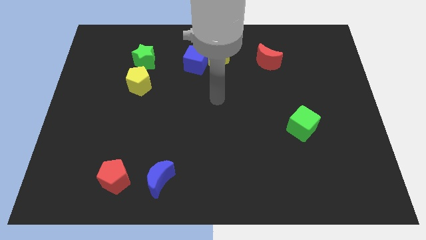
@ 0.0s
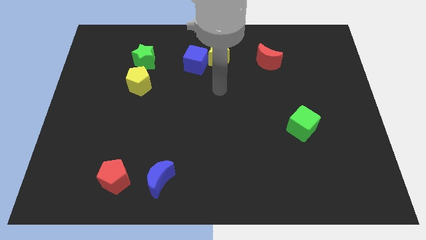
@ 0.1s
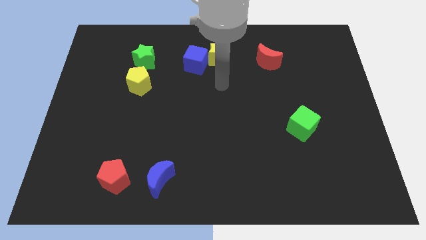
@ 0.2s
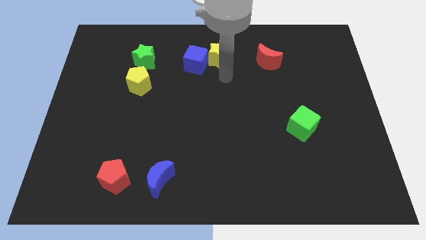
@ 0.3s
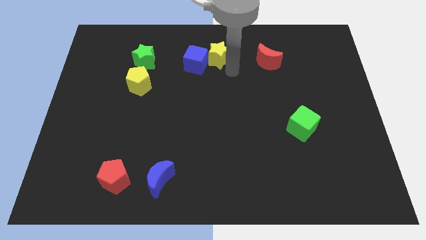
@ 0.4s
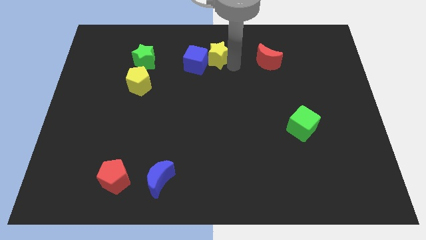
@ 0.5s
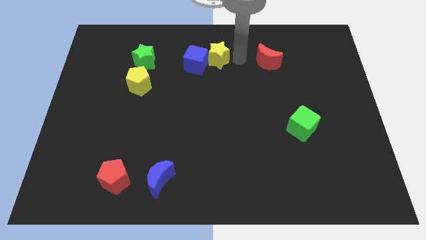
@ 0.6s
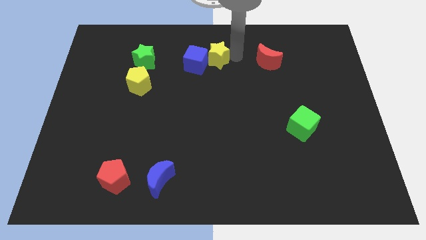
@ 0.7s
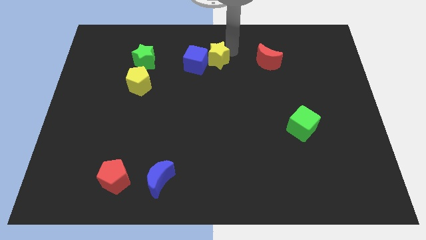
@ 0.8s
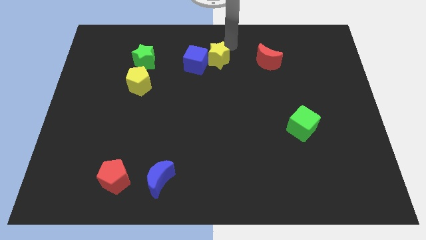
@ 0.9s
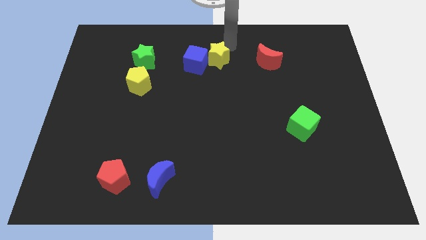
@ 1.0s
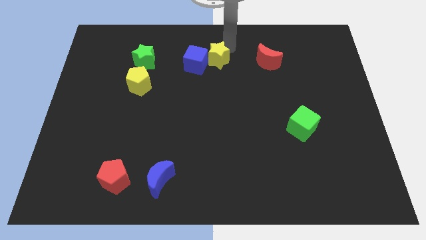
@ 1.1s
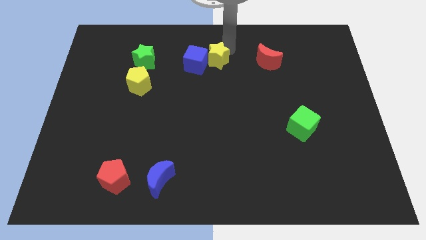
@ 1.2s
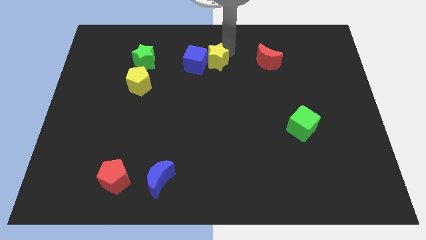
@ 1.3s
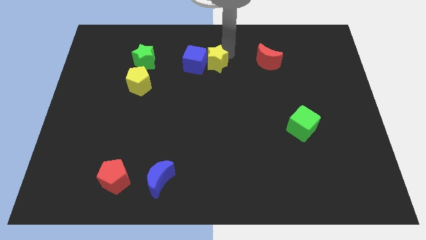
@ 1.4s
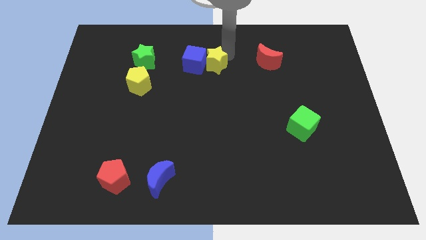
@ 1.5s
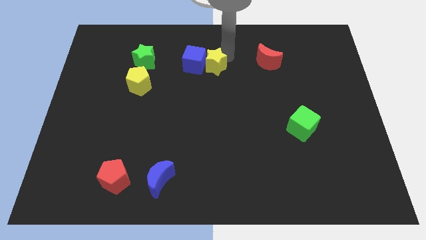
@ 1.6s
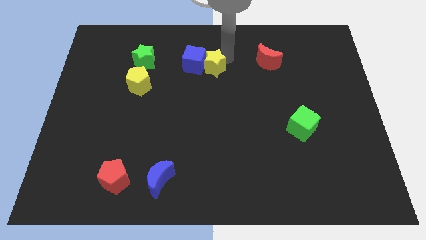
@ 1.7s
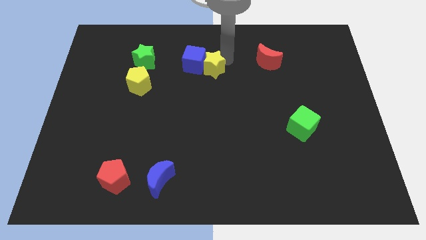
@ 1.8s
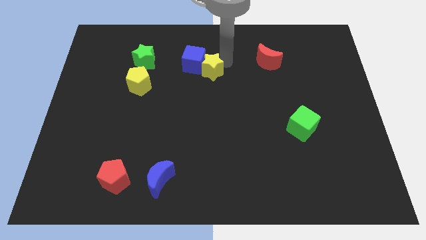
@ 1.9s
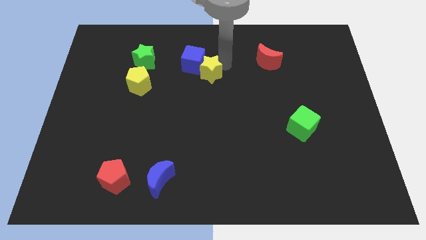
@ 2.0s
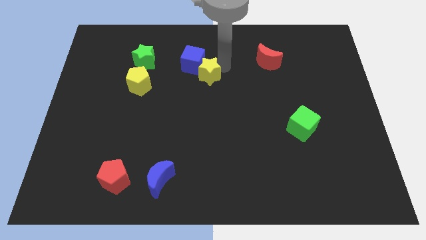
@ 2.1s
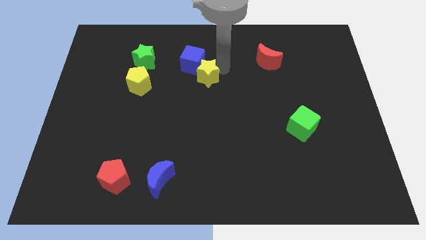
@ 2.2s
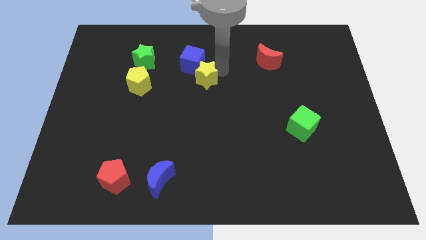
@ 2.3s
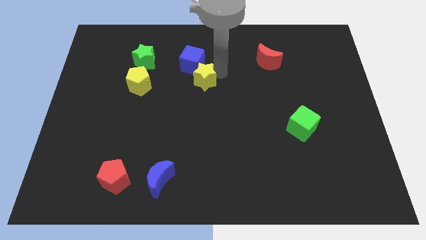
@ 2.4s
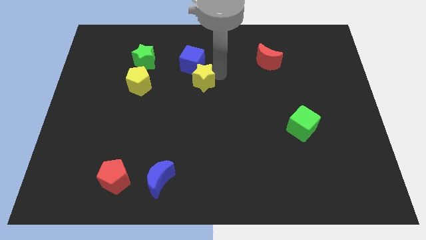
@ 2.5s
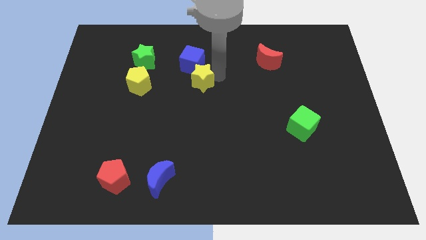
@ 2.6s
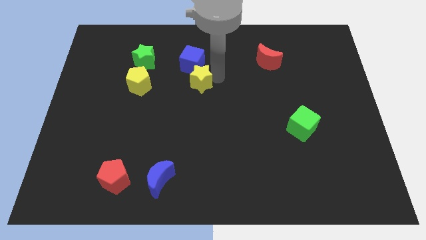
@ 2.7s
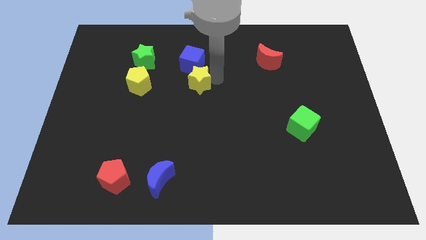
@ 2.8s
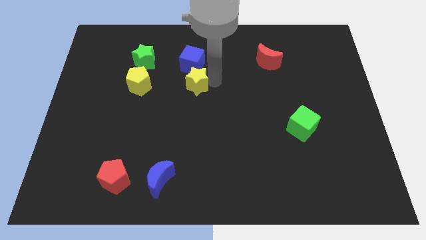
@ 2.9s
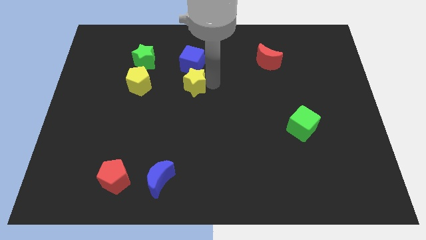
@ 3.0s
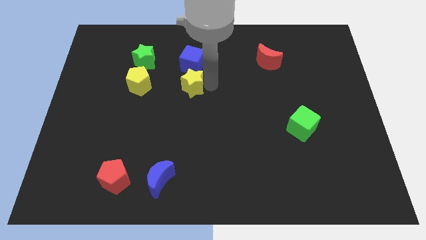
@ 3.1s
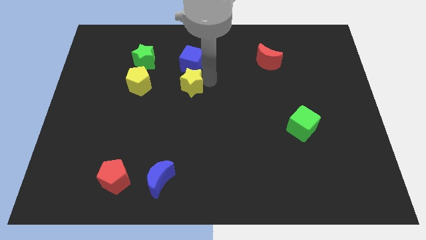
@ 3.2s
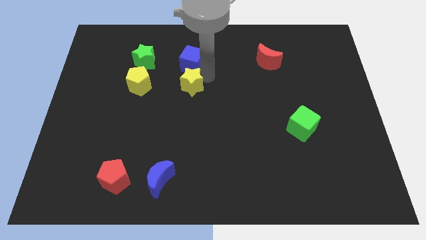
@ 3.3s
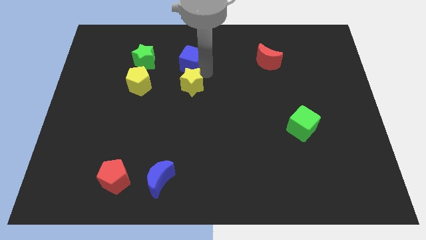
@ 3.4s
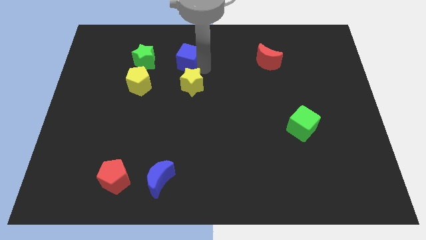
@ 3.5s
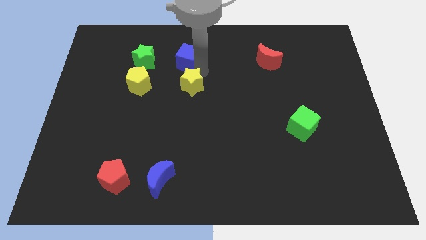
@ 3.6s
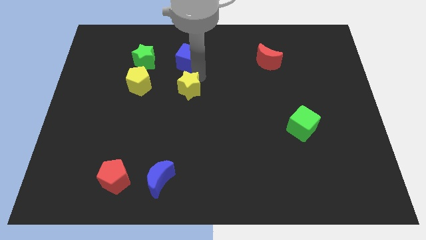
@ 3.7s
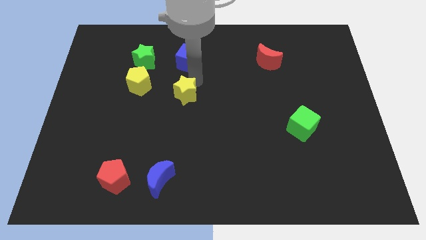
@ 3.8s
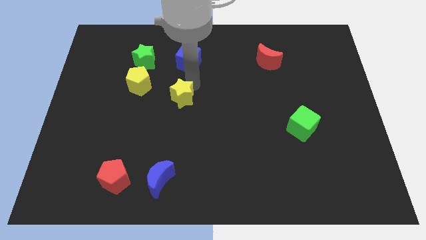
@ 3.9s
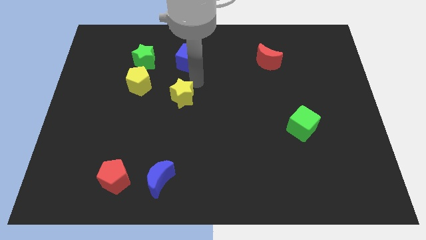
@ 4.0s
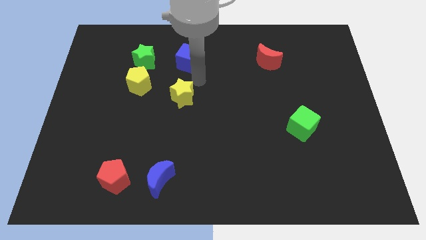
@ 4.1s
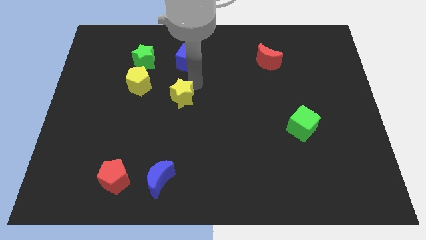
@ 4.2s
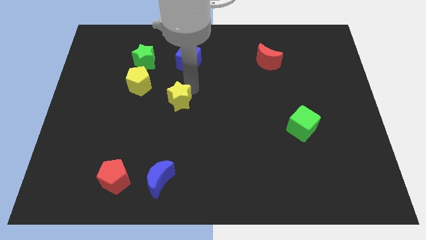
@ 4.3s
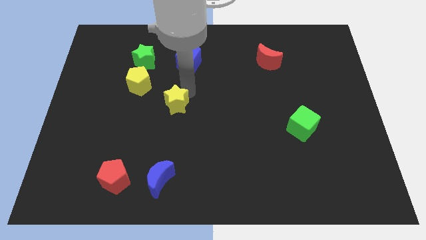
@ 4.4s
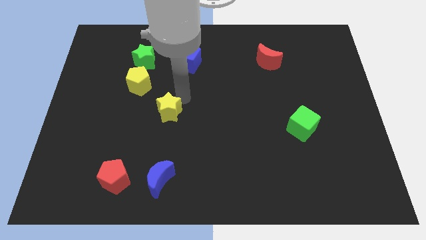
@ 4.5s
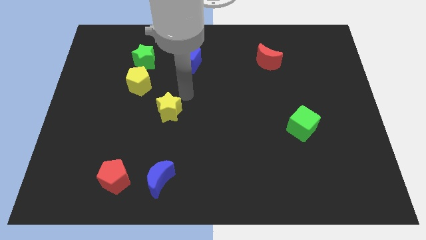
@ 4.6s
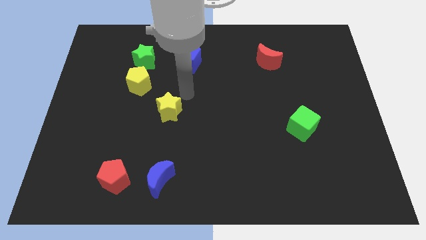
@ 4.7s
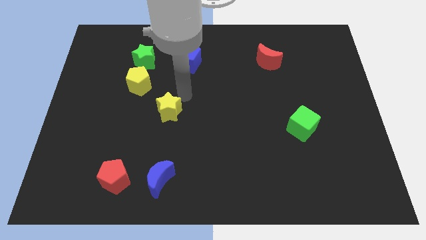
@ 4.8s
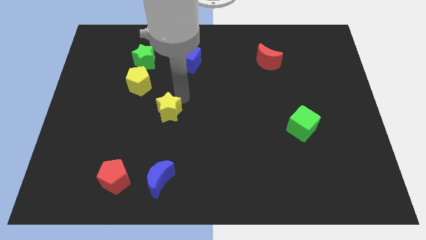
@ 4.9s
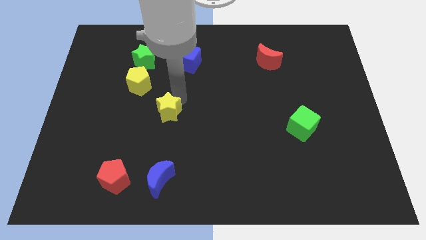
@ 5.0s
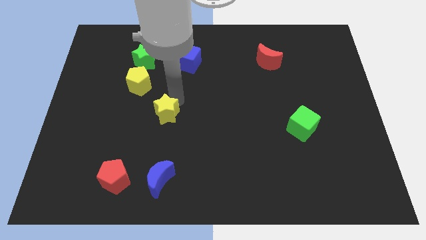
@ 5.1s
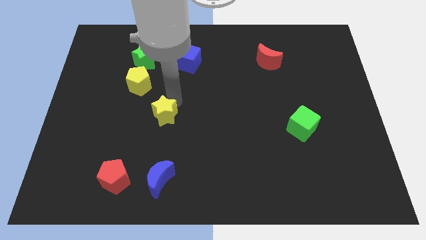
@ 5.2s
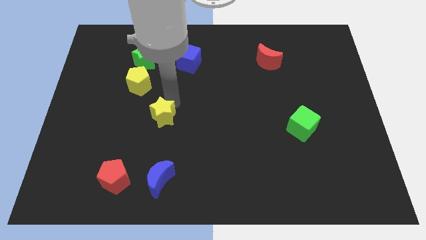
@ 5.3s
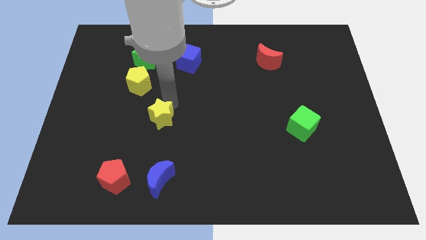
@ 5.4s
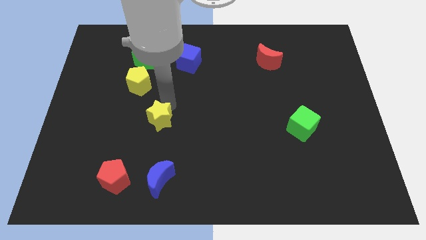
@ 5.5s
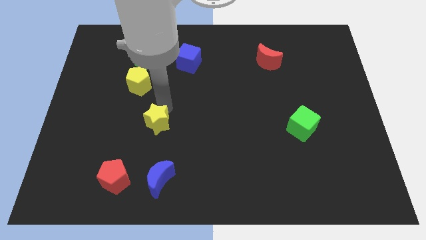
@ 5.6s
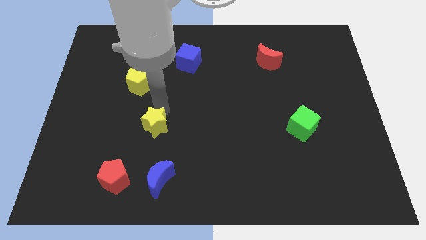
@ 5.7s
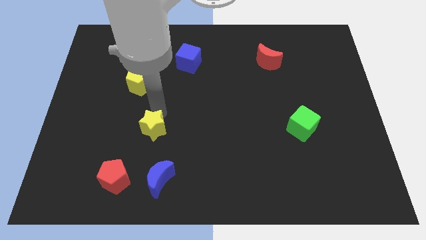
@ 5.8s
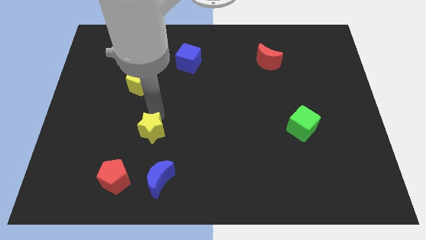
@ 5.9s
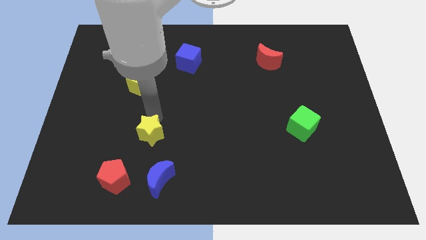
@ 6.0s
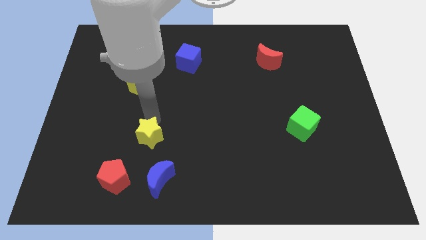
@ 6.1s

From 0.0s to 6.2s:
move the yellow star diagonally up and to the right of the red pentagon

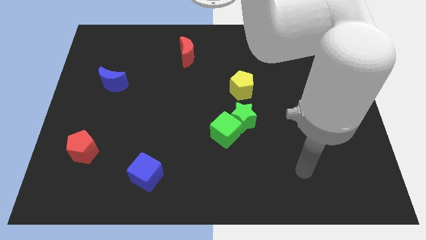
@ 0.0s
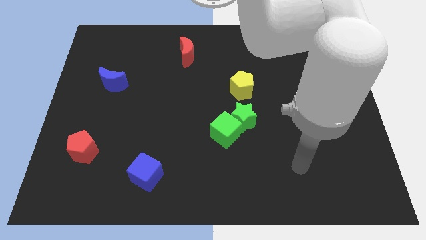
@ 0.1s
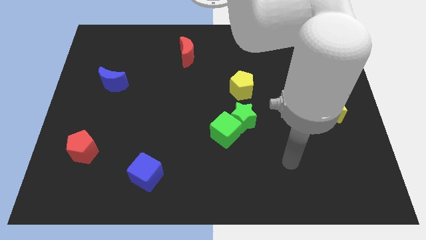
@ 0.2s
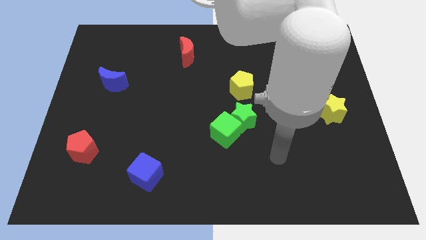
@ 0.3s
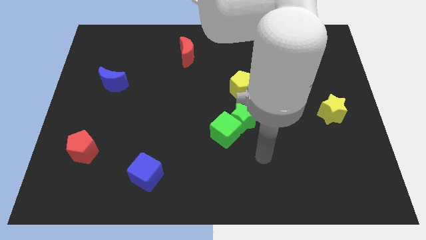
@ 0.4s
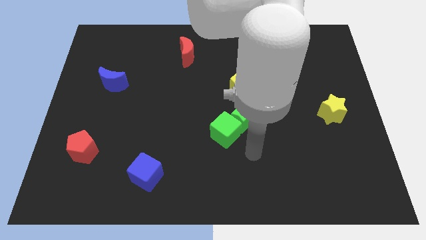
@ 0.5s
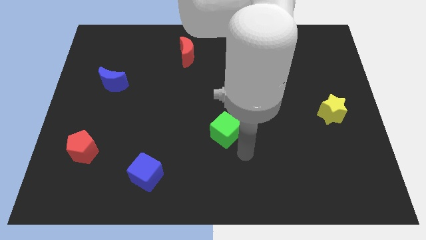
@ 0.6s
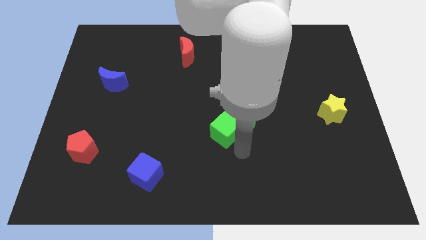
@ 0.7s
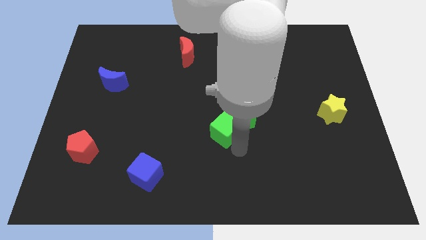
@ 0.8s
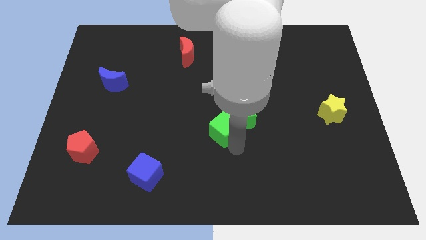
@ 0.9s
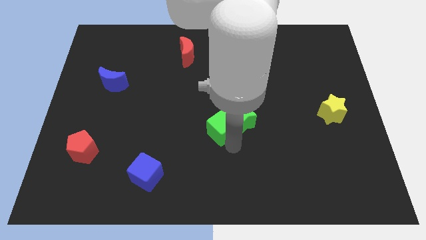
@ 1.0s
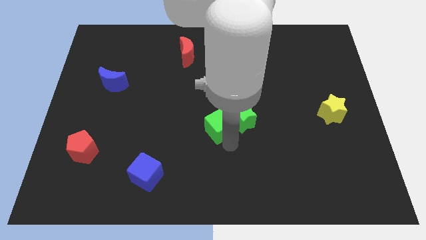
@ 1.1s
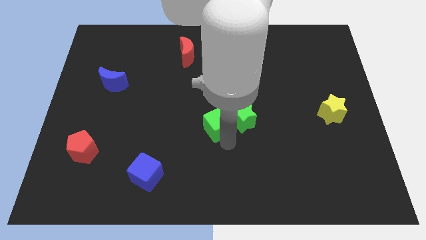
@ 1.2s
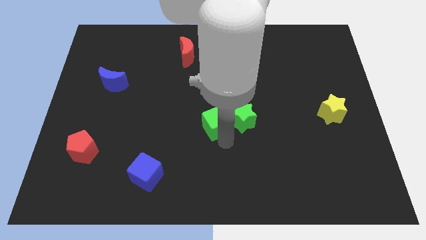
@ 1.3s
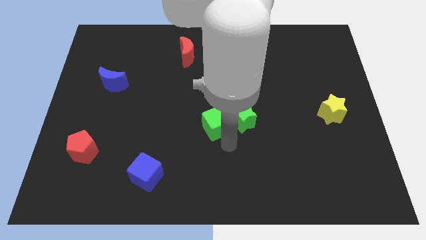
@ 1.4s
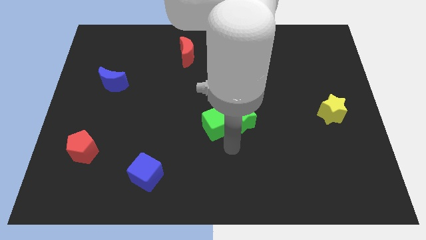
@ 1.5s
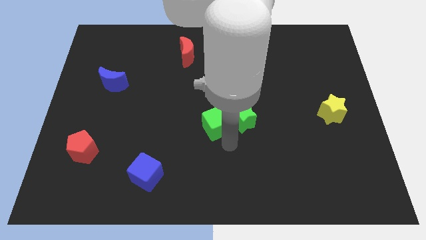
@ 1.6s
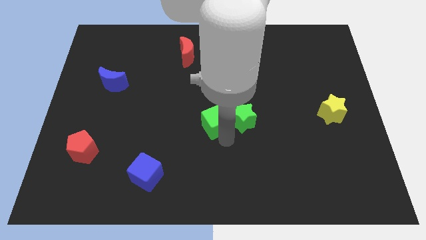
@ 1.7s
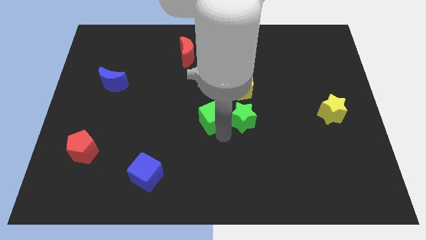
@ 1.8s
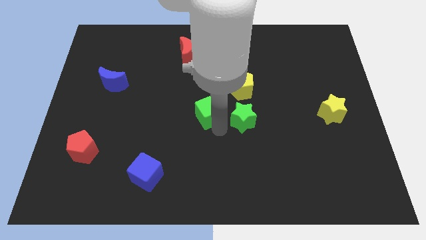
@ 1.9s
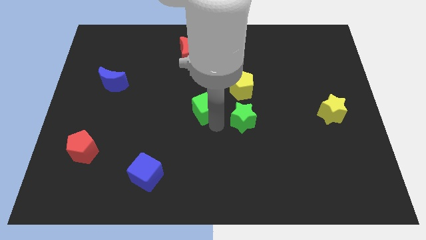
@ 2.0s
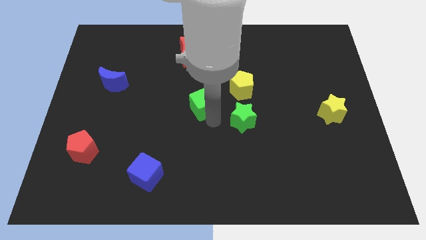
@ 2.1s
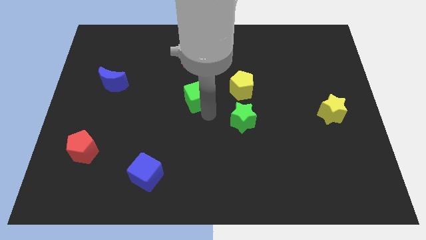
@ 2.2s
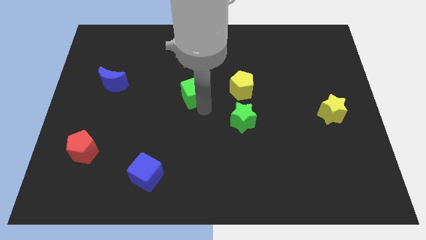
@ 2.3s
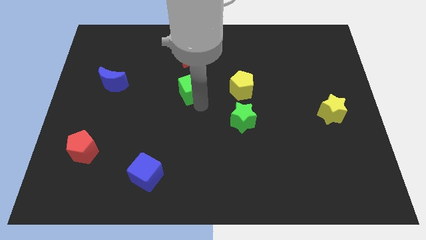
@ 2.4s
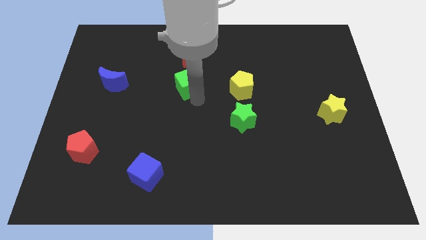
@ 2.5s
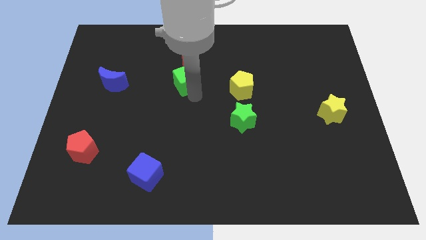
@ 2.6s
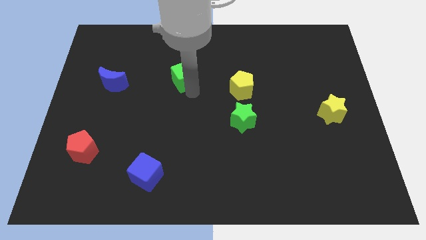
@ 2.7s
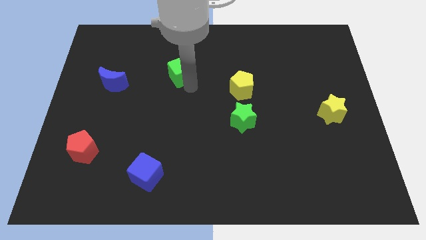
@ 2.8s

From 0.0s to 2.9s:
slide the green cube diagonally down and to the left of the red moon
